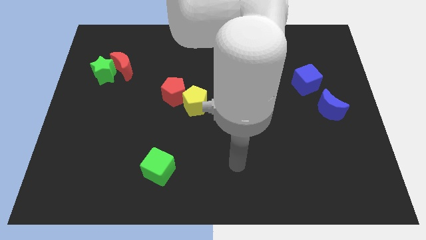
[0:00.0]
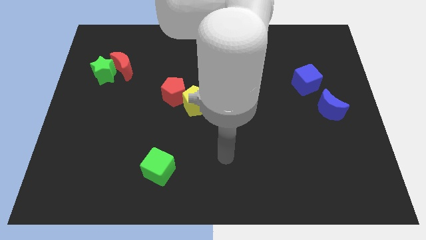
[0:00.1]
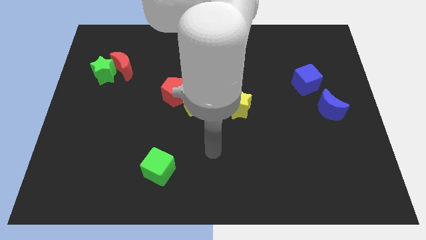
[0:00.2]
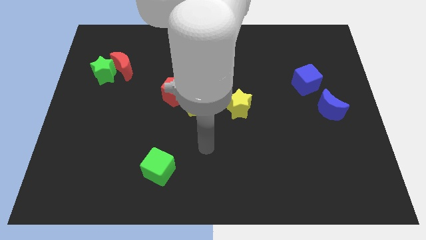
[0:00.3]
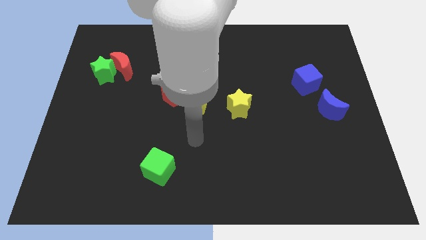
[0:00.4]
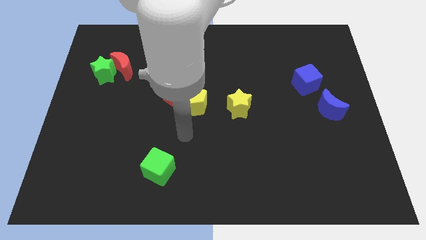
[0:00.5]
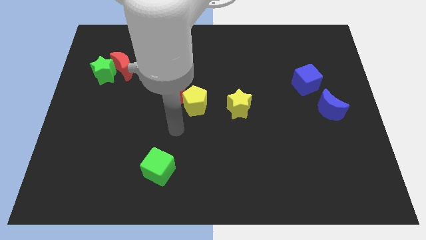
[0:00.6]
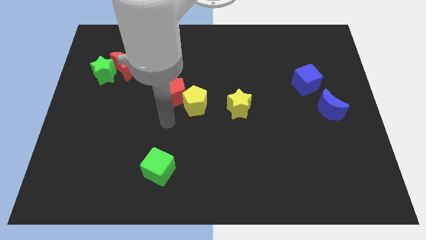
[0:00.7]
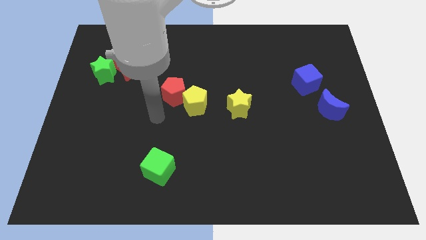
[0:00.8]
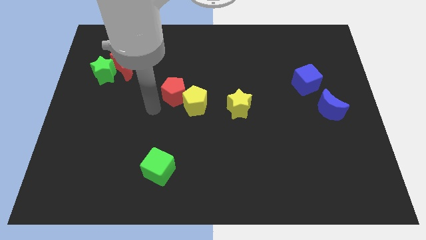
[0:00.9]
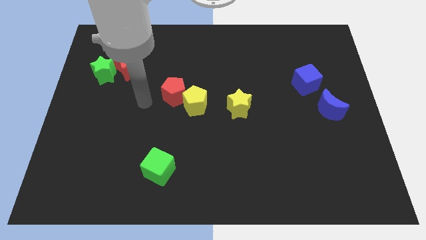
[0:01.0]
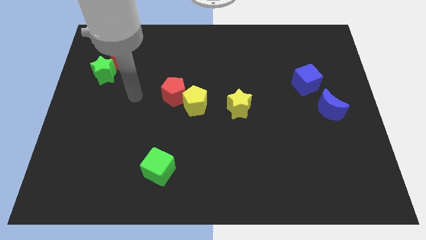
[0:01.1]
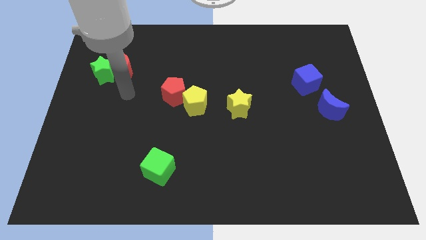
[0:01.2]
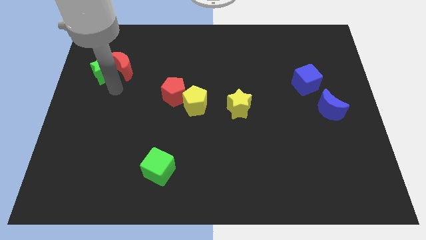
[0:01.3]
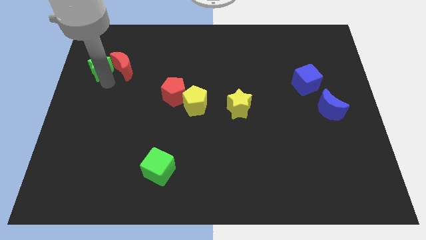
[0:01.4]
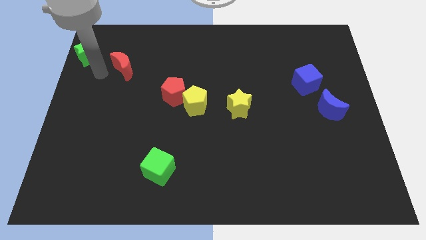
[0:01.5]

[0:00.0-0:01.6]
pull the red moon apart from the green star

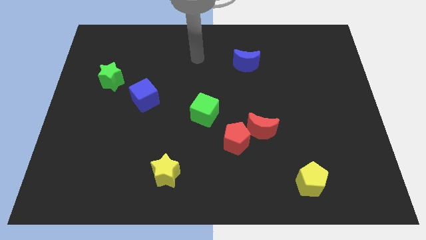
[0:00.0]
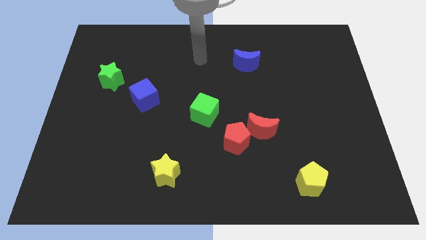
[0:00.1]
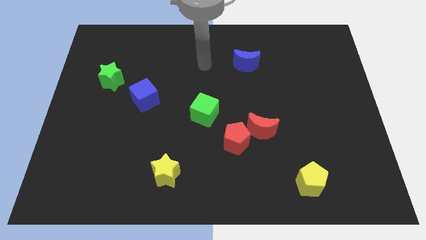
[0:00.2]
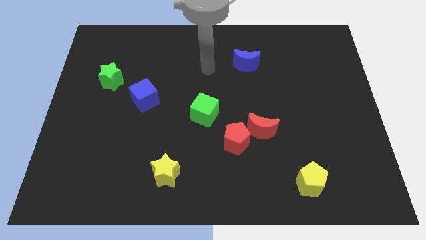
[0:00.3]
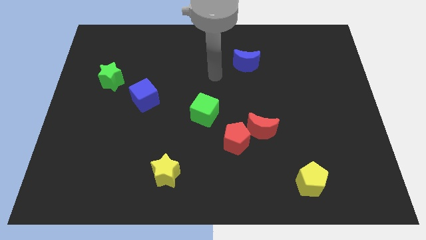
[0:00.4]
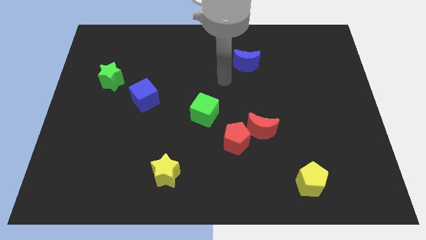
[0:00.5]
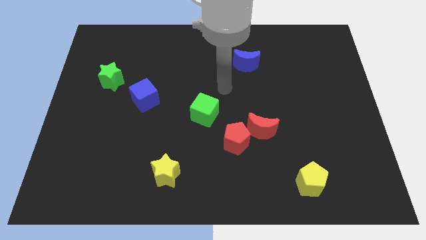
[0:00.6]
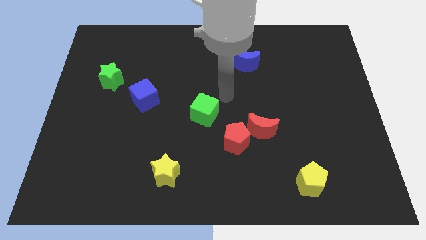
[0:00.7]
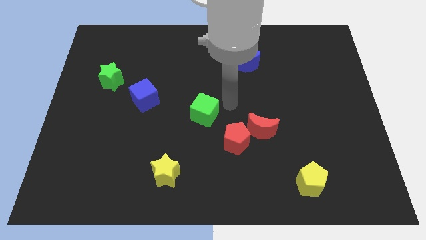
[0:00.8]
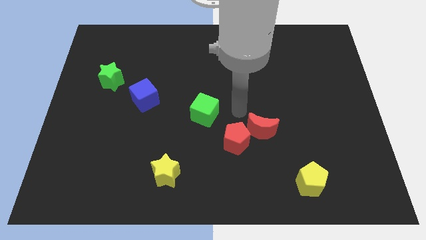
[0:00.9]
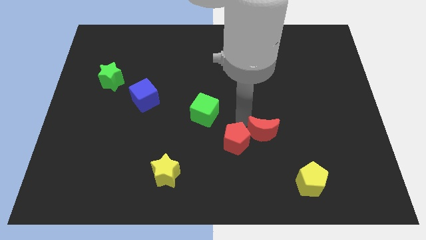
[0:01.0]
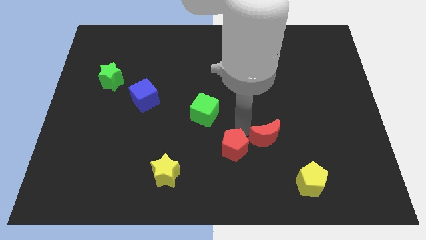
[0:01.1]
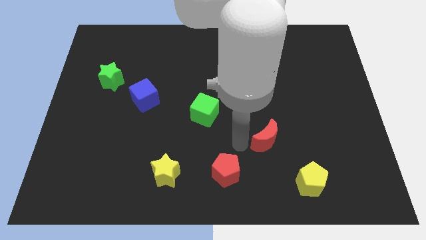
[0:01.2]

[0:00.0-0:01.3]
separate the red moon from the red pentagon

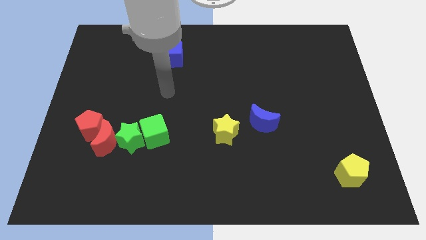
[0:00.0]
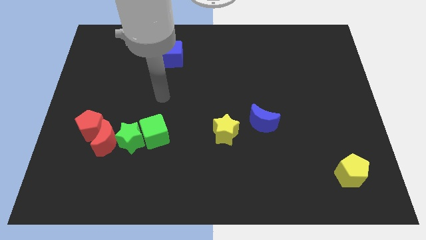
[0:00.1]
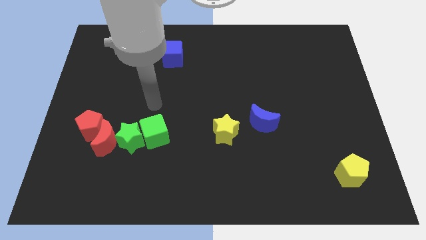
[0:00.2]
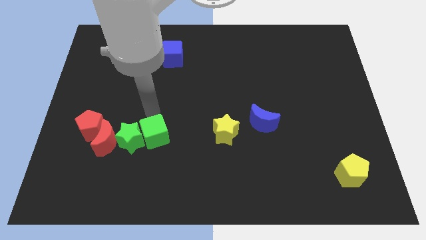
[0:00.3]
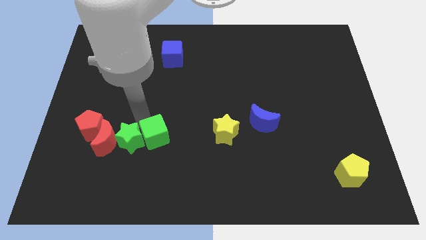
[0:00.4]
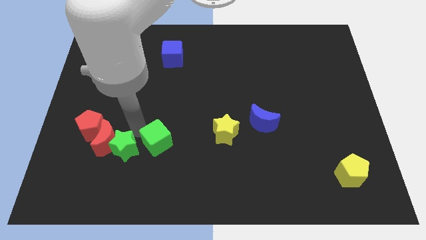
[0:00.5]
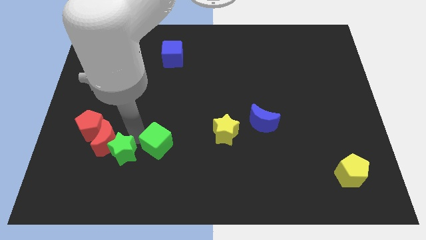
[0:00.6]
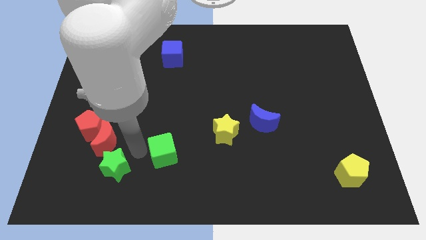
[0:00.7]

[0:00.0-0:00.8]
pull the green cube apart from the green star

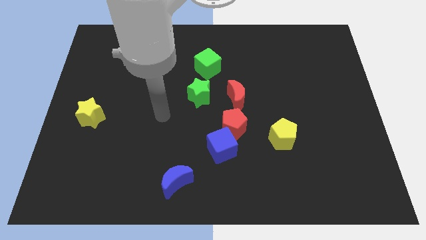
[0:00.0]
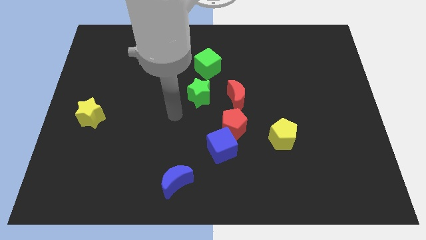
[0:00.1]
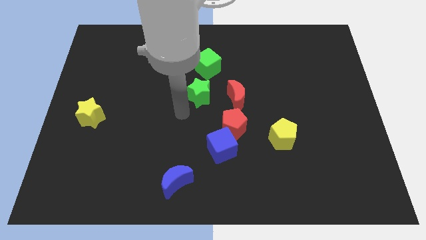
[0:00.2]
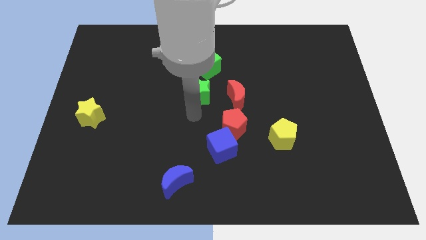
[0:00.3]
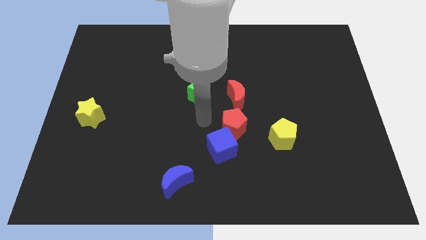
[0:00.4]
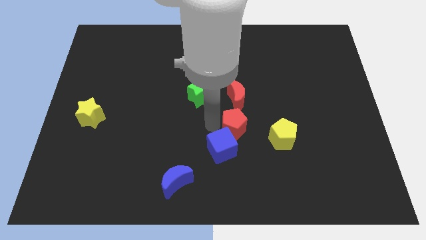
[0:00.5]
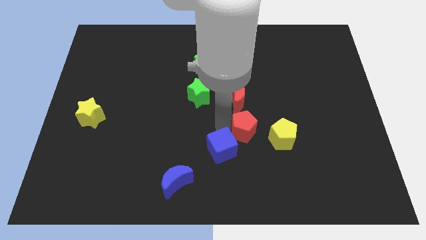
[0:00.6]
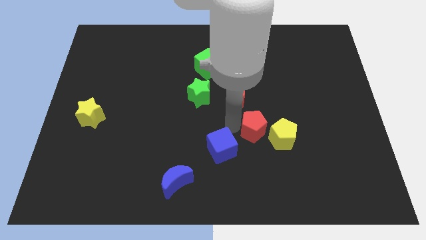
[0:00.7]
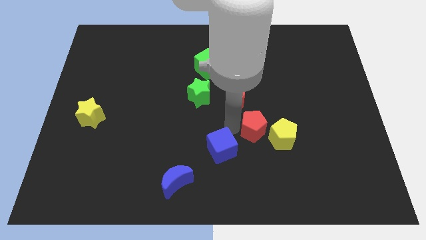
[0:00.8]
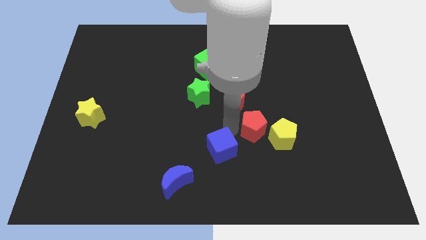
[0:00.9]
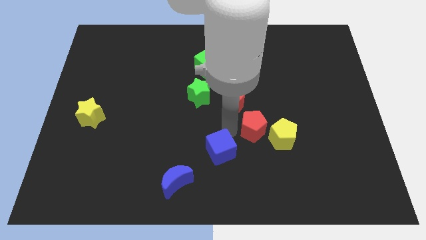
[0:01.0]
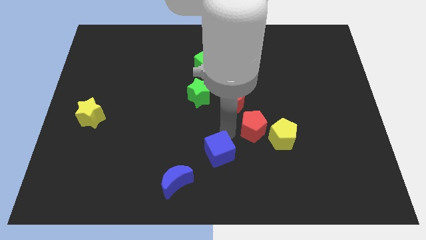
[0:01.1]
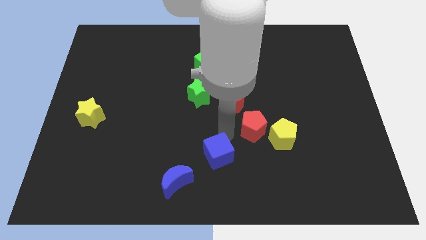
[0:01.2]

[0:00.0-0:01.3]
move the blue cube away from the red pentagon

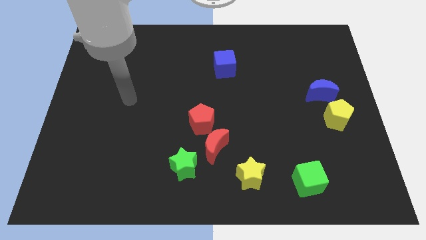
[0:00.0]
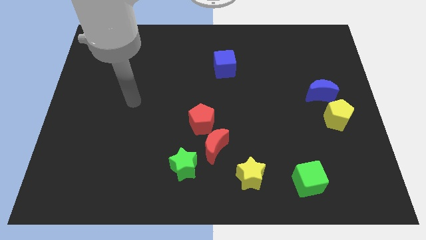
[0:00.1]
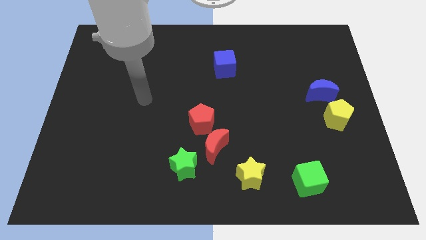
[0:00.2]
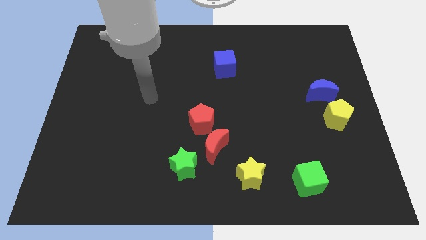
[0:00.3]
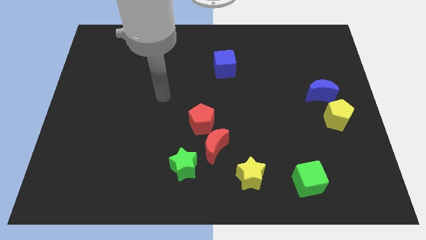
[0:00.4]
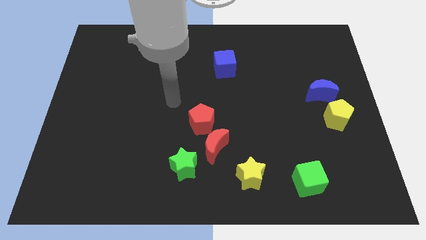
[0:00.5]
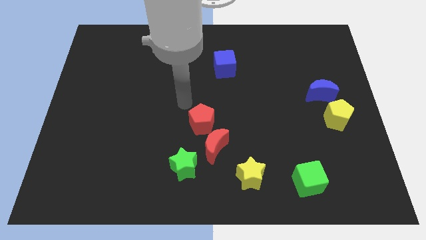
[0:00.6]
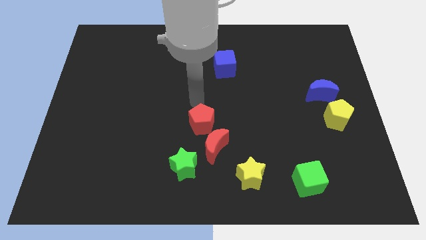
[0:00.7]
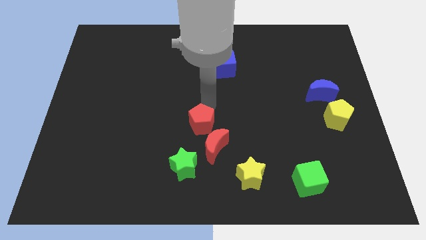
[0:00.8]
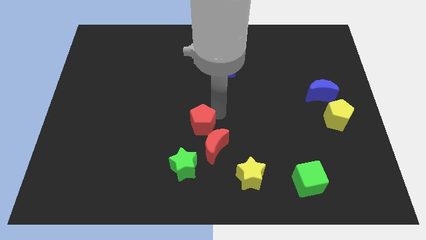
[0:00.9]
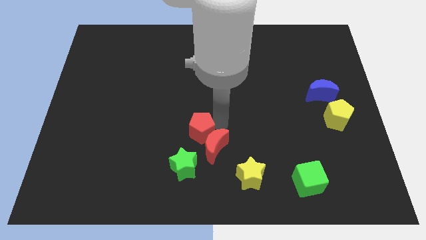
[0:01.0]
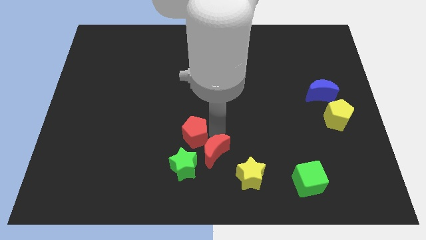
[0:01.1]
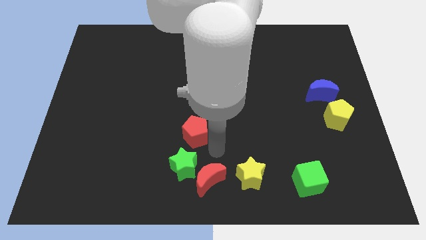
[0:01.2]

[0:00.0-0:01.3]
pull the red pentagon apart from the red moon

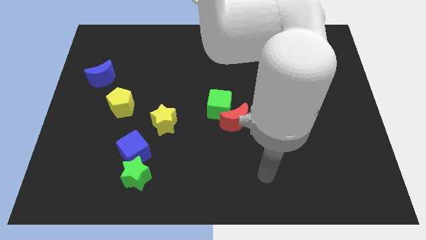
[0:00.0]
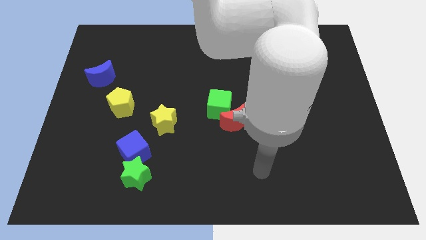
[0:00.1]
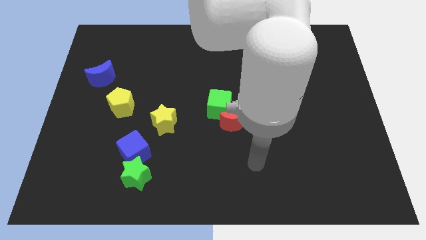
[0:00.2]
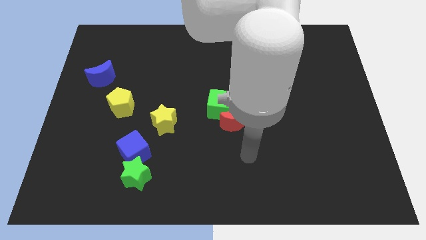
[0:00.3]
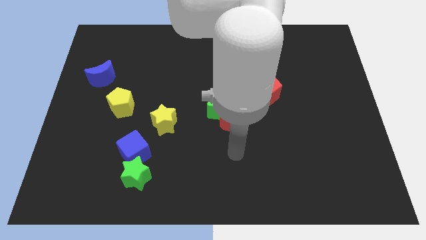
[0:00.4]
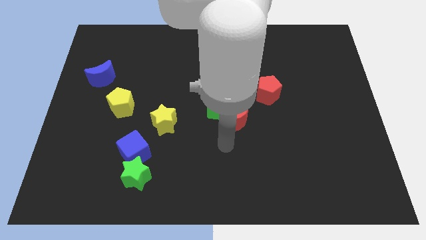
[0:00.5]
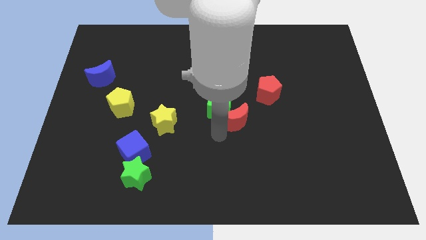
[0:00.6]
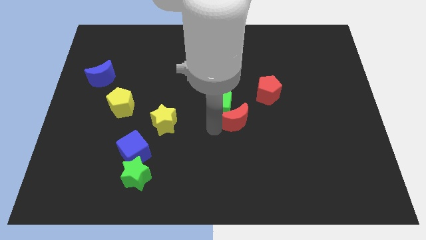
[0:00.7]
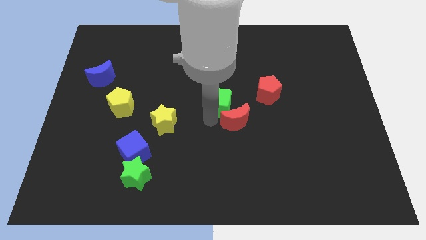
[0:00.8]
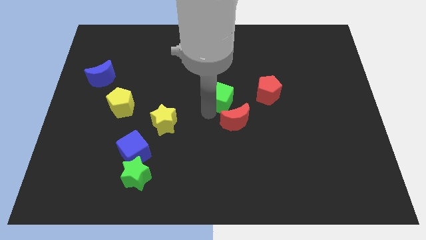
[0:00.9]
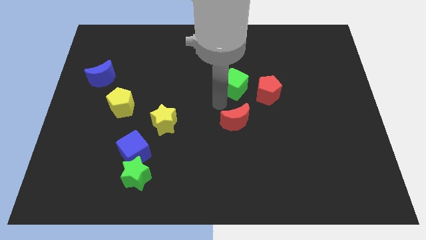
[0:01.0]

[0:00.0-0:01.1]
separate the red moon from the green cube

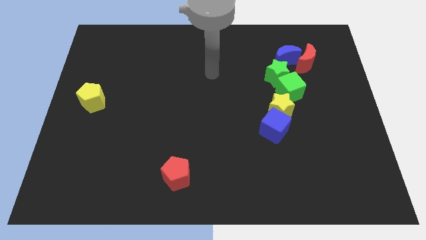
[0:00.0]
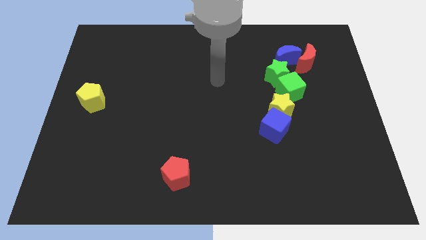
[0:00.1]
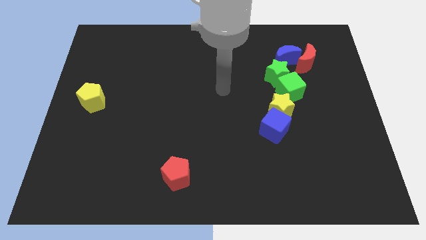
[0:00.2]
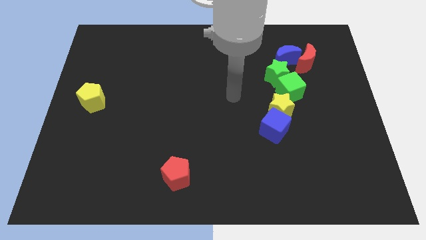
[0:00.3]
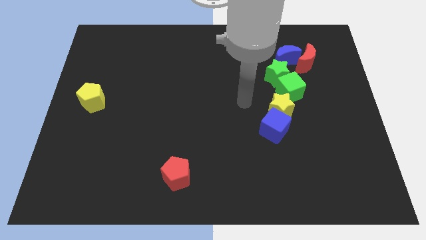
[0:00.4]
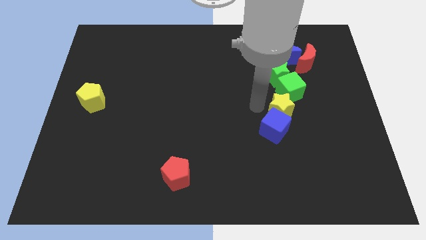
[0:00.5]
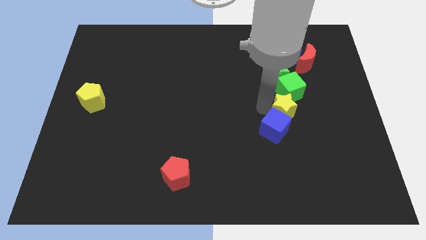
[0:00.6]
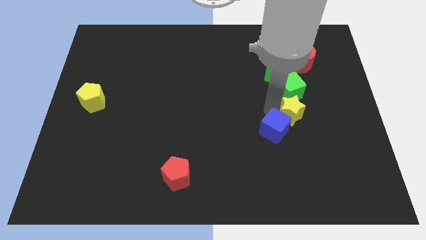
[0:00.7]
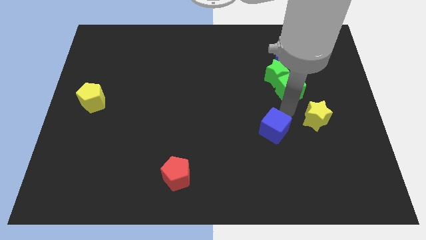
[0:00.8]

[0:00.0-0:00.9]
pull the blue cube apart from the yellow star

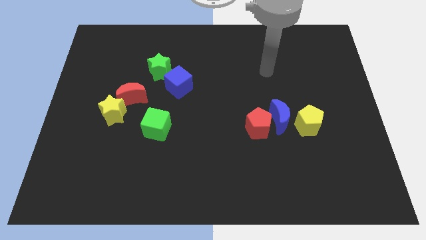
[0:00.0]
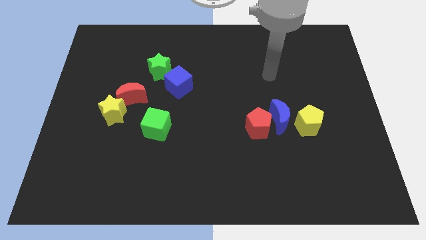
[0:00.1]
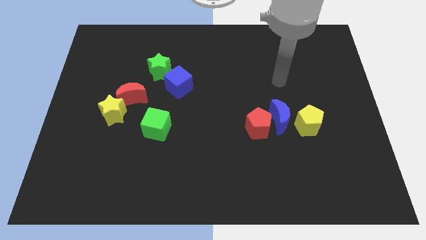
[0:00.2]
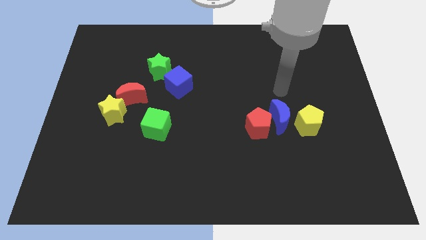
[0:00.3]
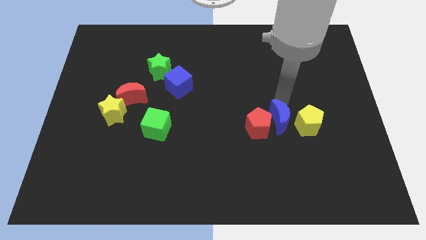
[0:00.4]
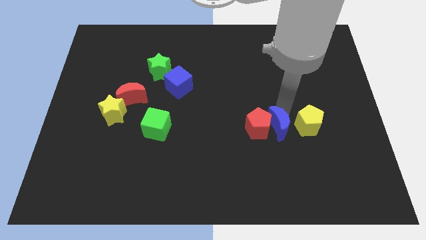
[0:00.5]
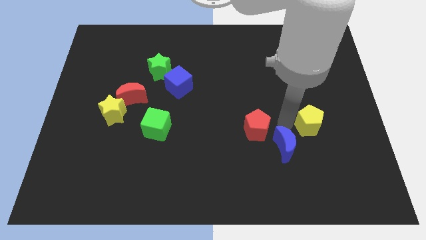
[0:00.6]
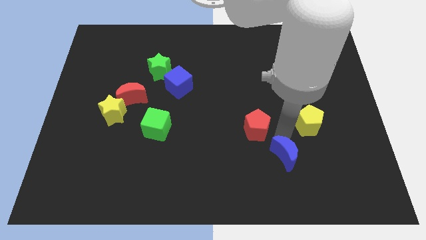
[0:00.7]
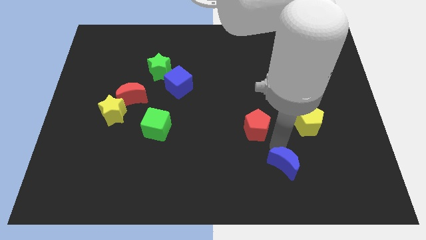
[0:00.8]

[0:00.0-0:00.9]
pull the red pentagon apart from the blue moon
